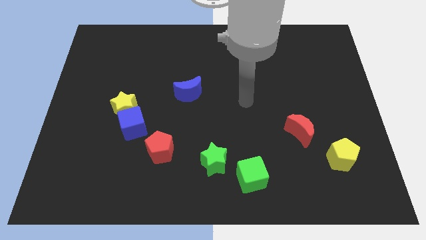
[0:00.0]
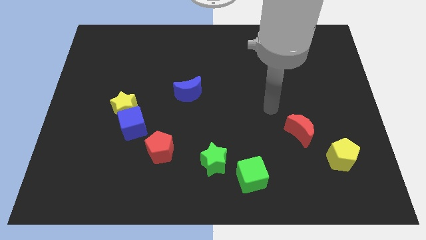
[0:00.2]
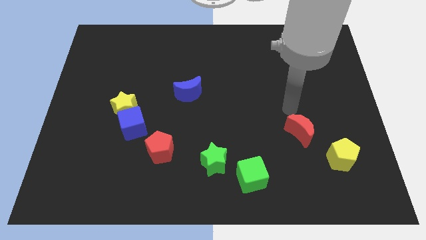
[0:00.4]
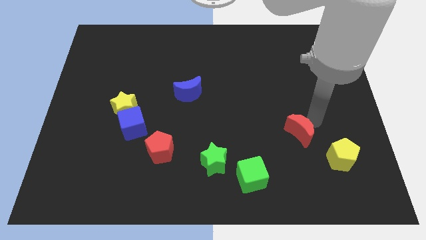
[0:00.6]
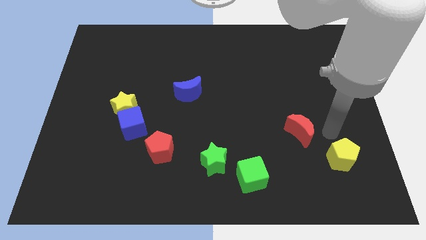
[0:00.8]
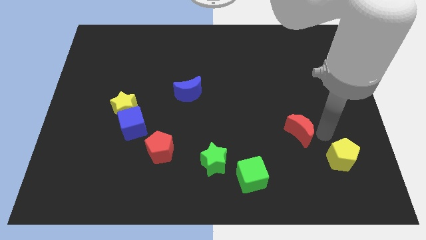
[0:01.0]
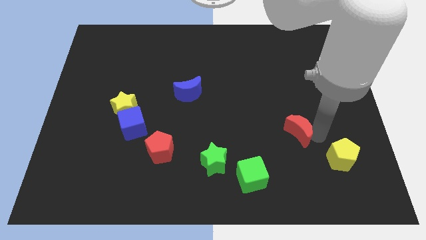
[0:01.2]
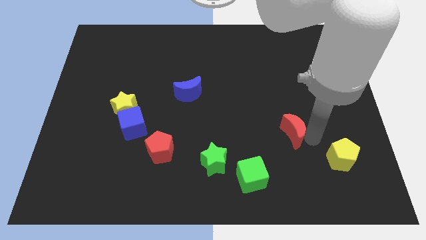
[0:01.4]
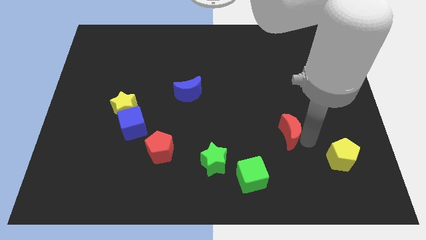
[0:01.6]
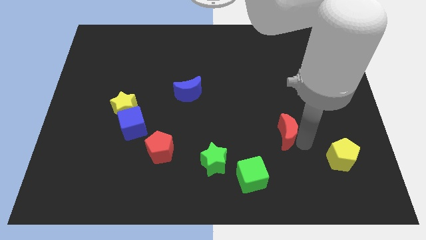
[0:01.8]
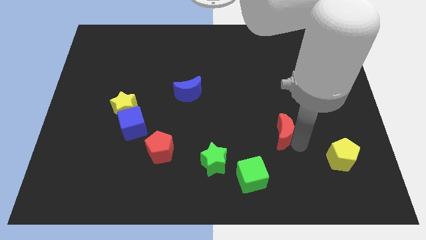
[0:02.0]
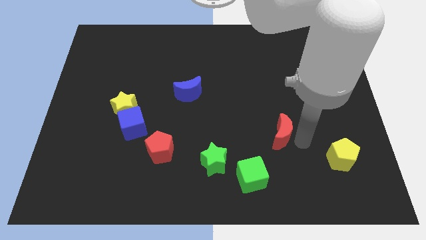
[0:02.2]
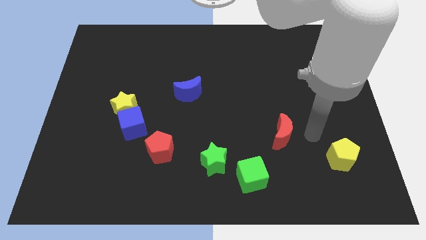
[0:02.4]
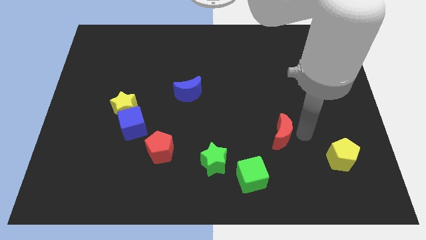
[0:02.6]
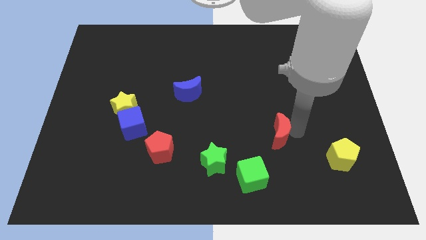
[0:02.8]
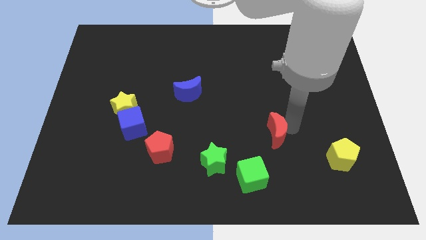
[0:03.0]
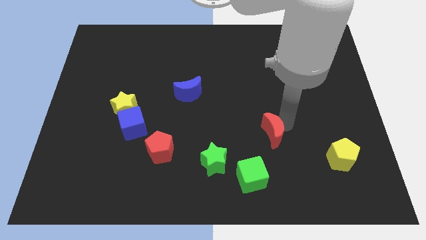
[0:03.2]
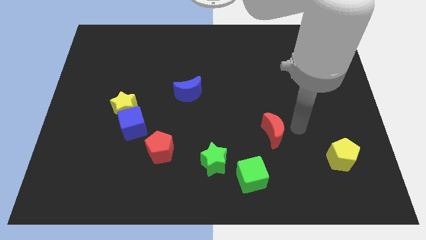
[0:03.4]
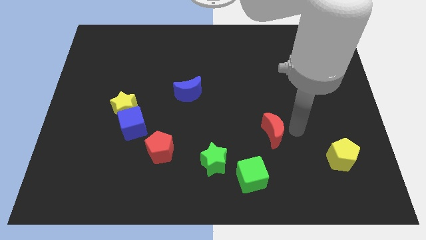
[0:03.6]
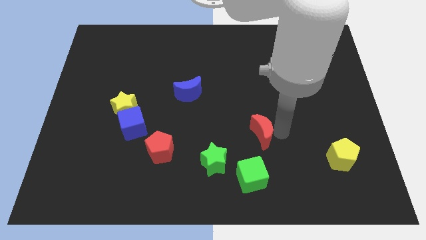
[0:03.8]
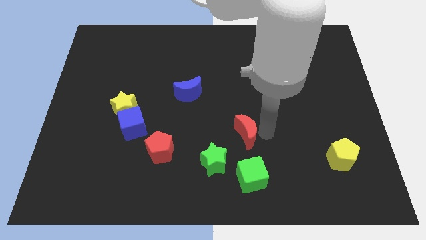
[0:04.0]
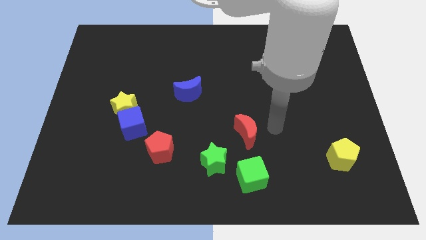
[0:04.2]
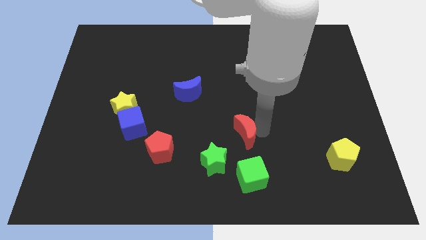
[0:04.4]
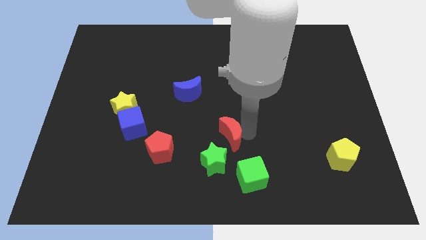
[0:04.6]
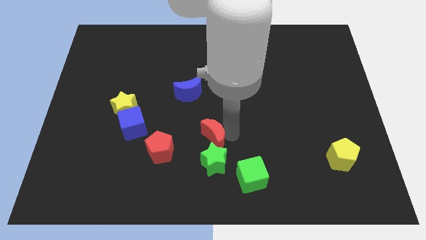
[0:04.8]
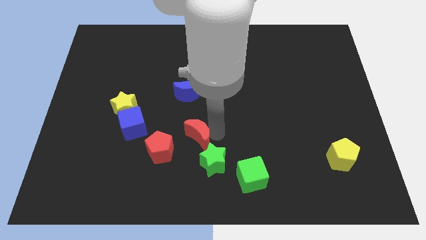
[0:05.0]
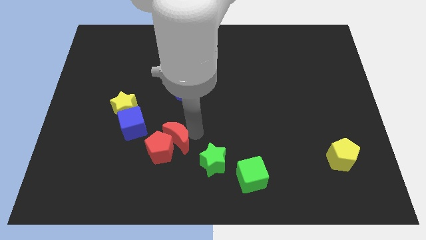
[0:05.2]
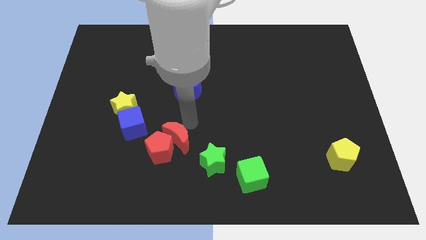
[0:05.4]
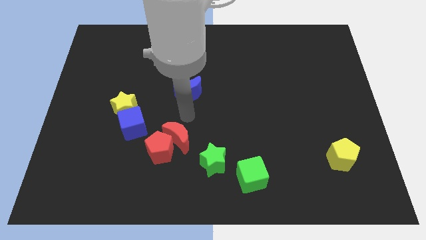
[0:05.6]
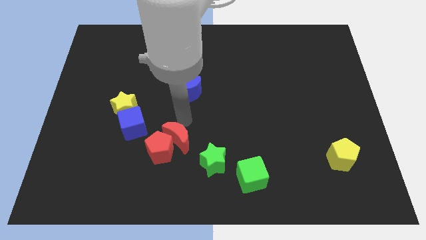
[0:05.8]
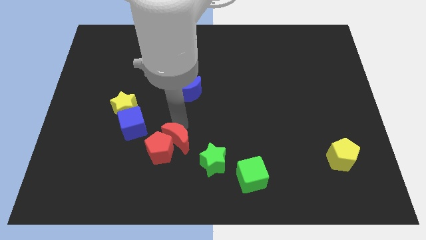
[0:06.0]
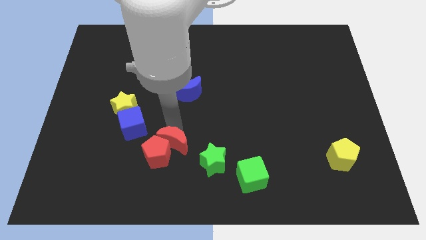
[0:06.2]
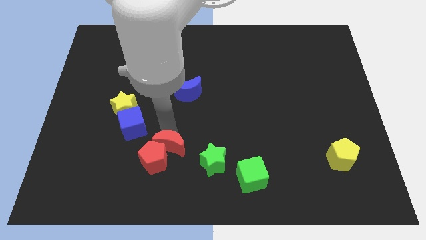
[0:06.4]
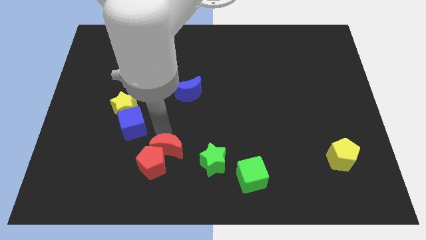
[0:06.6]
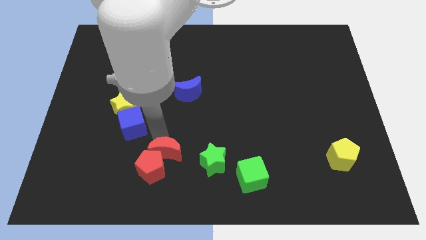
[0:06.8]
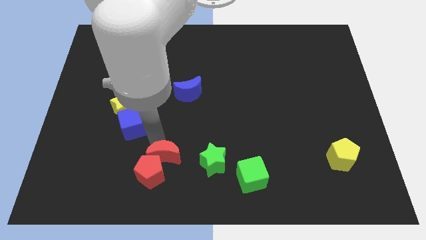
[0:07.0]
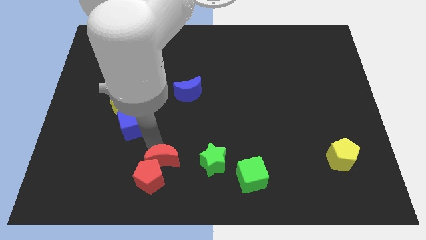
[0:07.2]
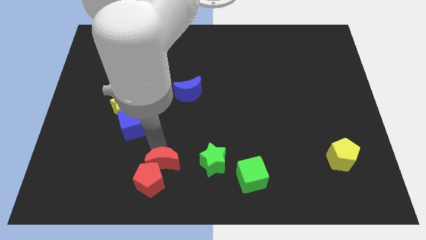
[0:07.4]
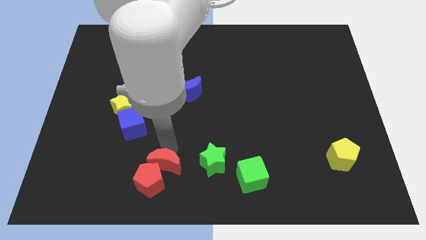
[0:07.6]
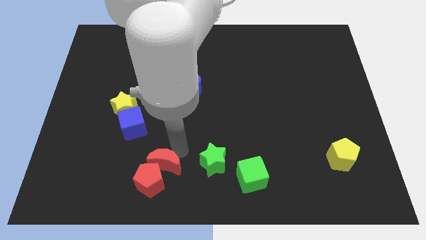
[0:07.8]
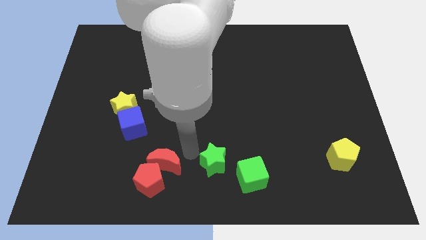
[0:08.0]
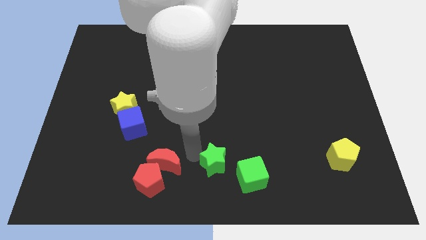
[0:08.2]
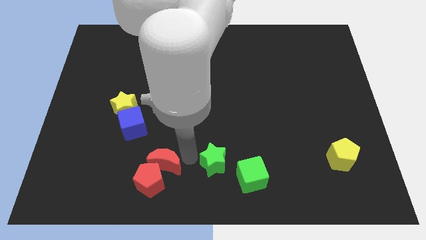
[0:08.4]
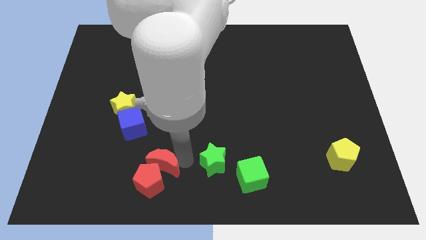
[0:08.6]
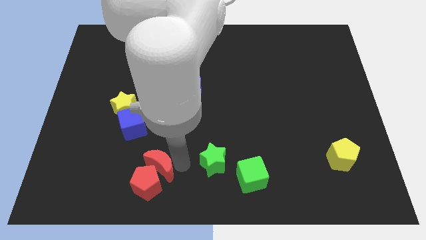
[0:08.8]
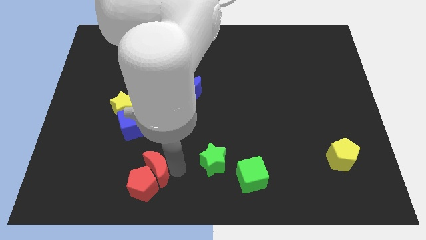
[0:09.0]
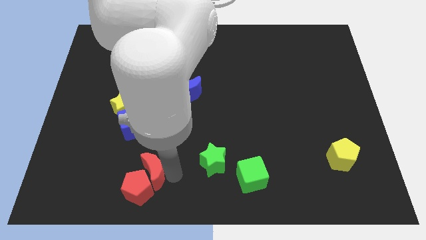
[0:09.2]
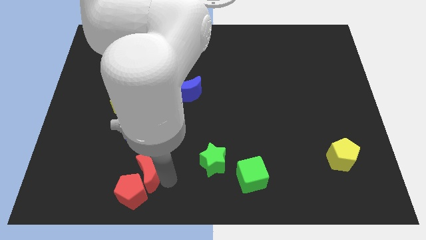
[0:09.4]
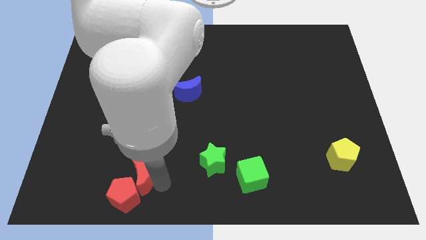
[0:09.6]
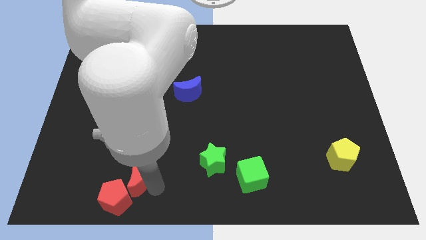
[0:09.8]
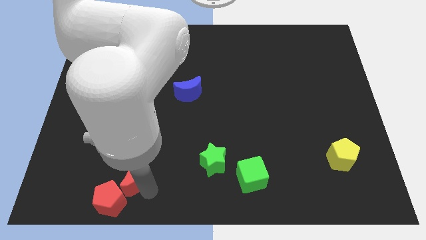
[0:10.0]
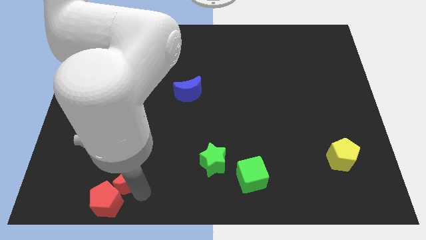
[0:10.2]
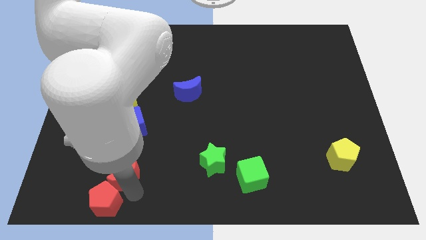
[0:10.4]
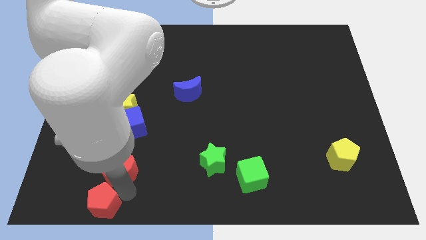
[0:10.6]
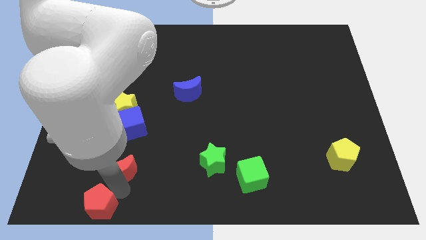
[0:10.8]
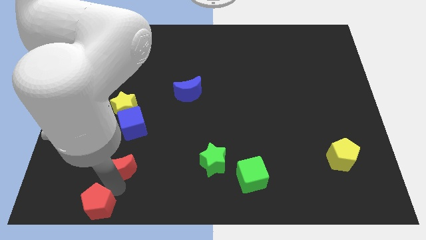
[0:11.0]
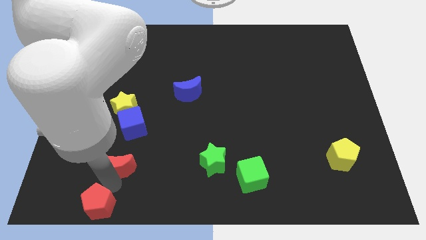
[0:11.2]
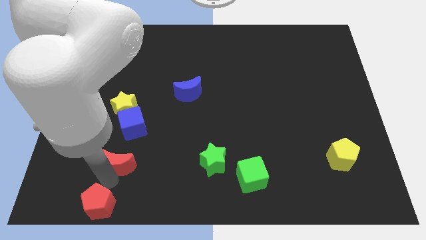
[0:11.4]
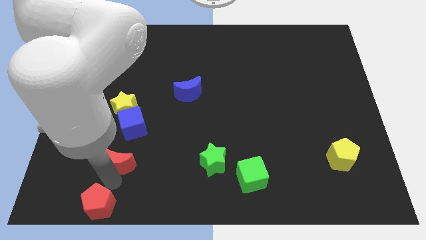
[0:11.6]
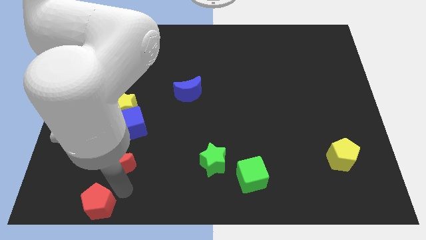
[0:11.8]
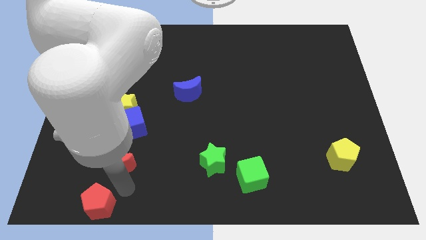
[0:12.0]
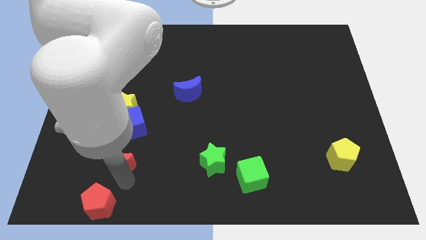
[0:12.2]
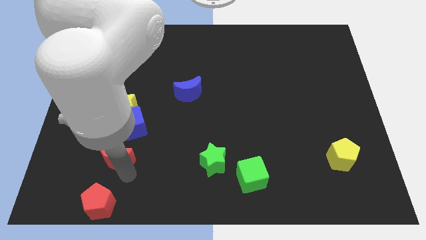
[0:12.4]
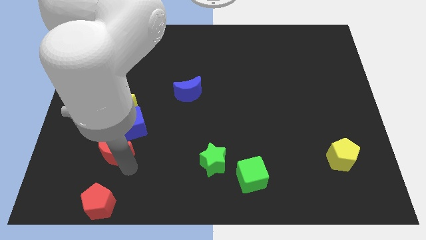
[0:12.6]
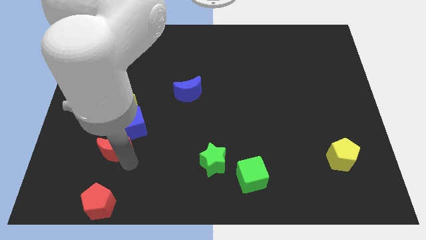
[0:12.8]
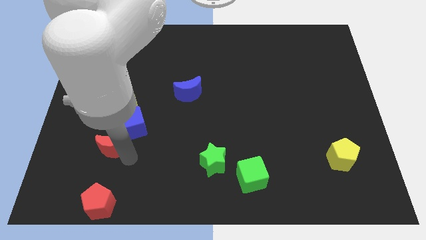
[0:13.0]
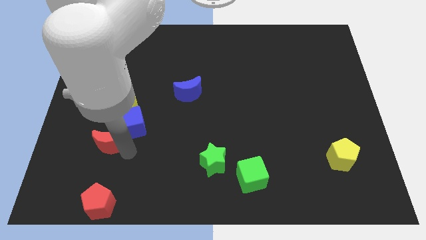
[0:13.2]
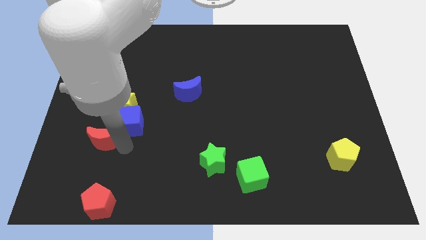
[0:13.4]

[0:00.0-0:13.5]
slide the red moon to the bottom left of the yellow star

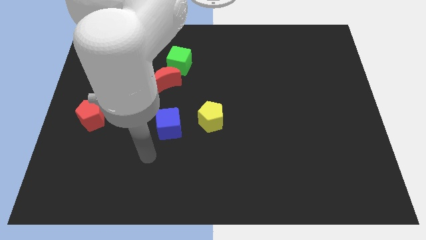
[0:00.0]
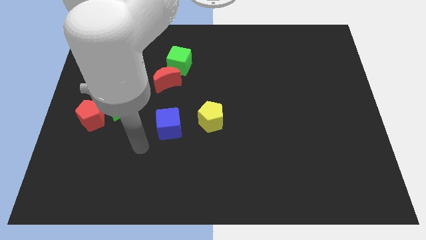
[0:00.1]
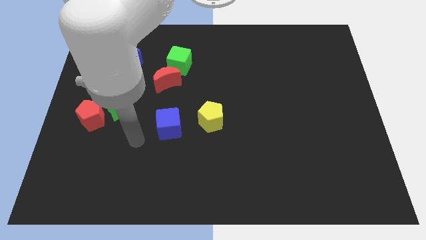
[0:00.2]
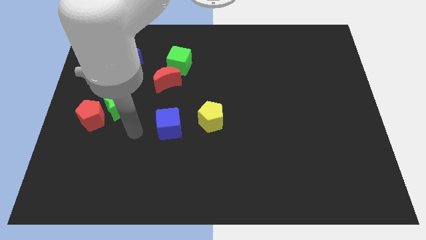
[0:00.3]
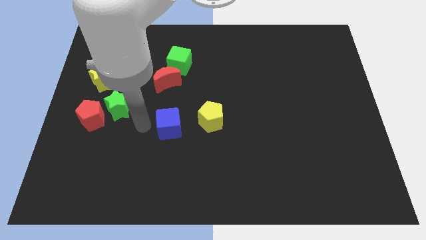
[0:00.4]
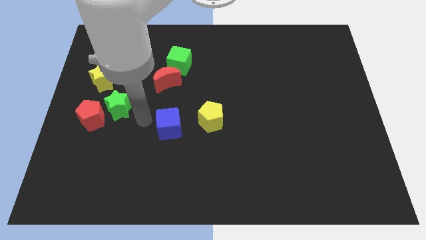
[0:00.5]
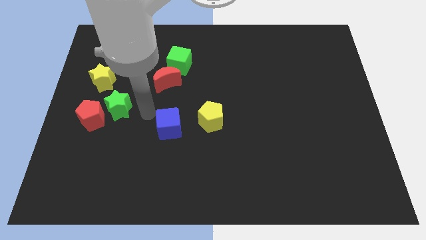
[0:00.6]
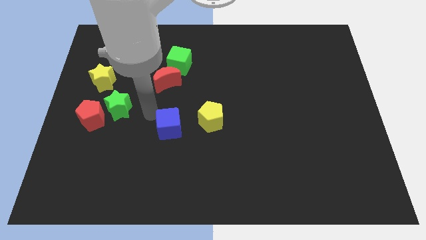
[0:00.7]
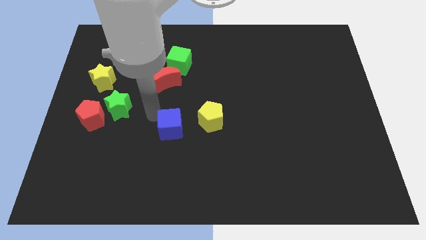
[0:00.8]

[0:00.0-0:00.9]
move the blue cube diagonally down and to the left of the yellow pentagon
